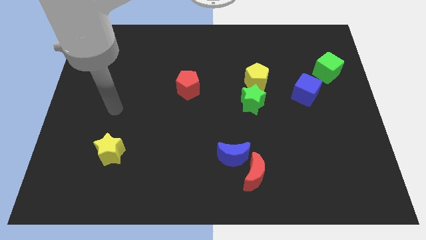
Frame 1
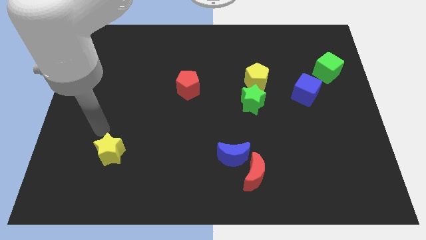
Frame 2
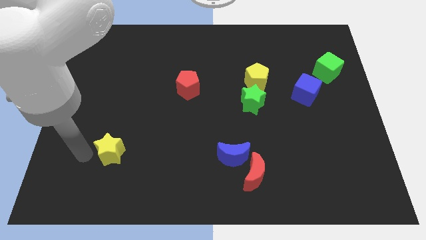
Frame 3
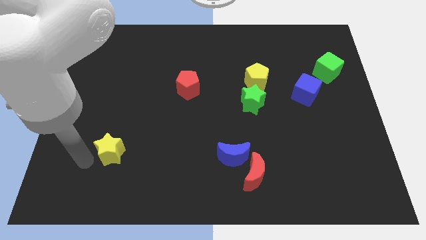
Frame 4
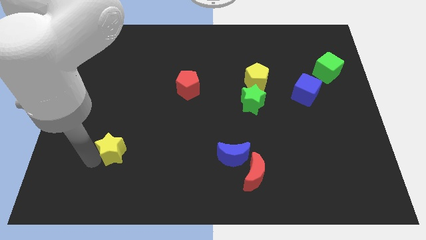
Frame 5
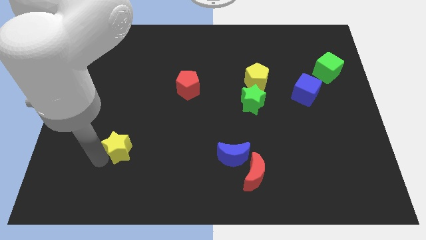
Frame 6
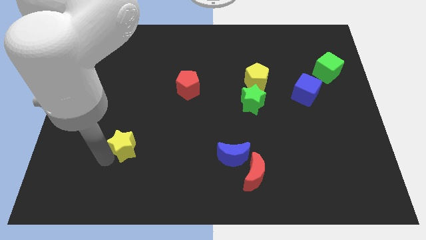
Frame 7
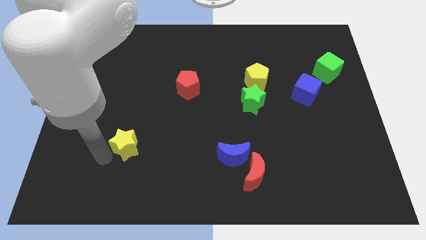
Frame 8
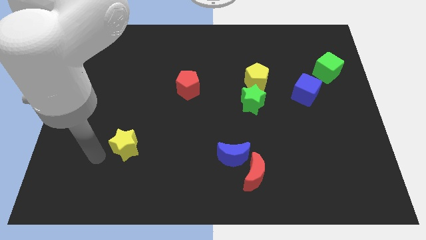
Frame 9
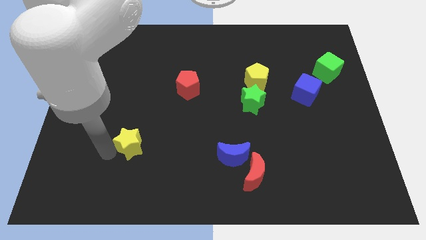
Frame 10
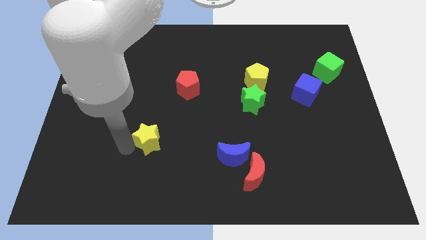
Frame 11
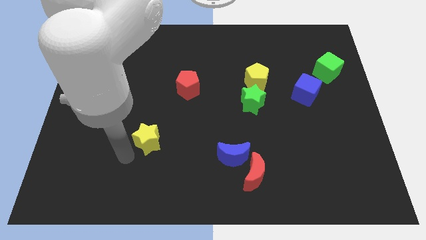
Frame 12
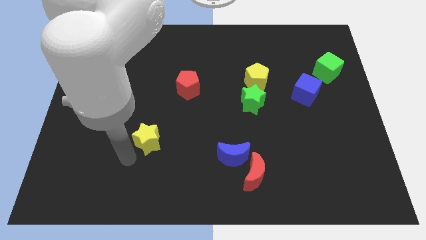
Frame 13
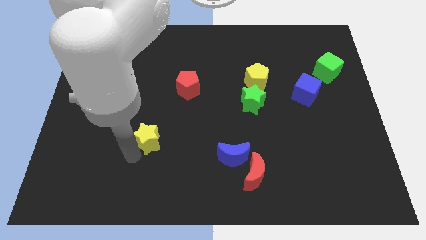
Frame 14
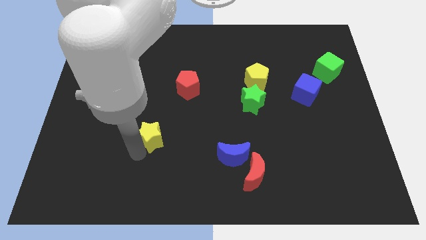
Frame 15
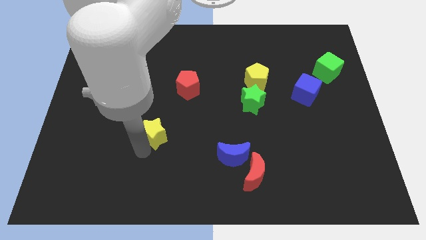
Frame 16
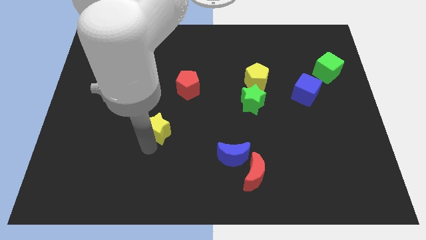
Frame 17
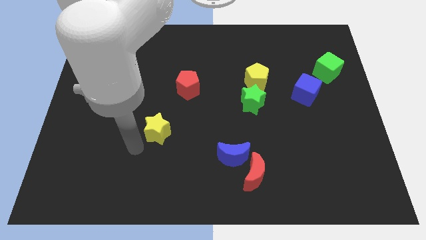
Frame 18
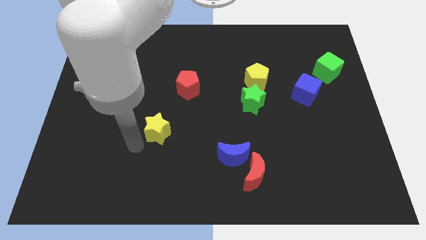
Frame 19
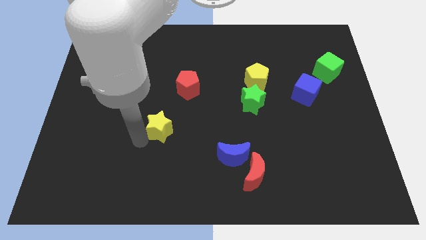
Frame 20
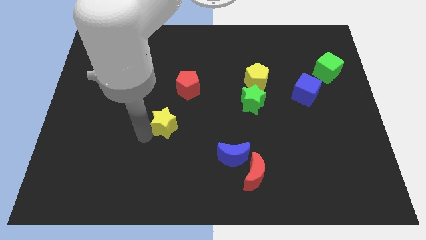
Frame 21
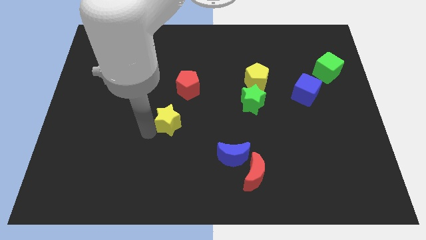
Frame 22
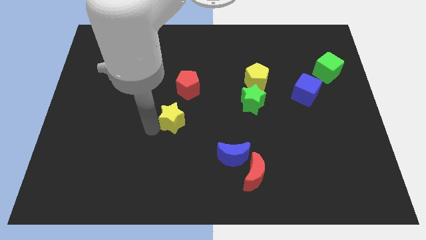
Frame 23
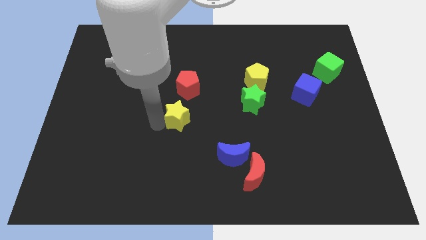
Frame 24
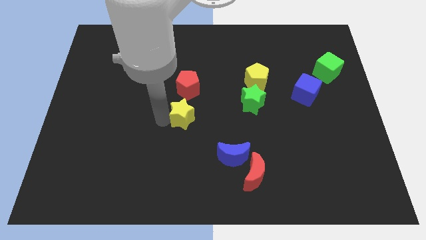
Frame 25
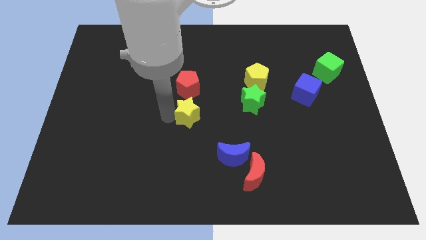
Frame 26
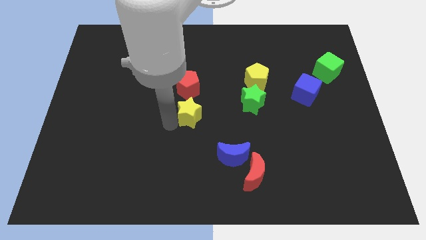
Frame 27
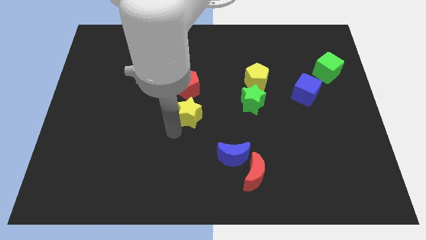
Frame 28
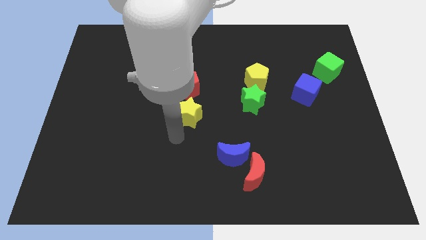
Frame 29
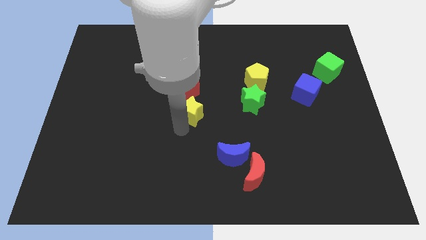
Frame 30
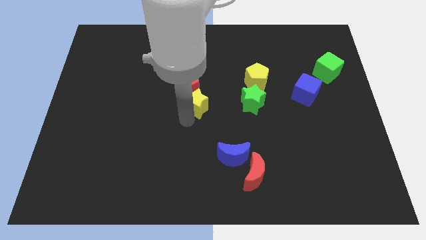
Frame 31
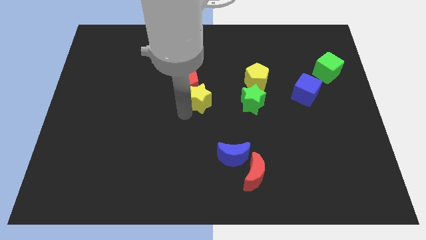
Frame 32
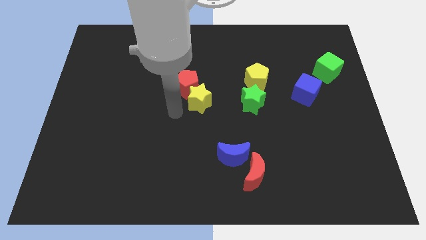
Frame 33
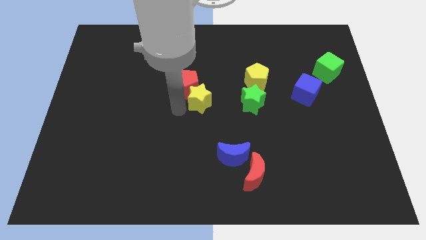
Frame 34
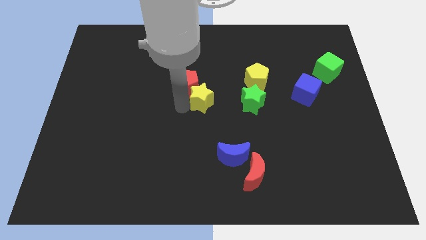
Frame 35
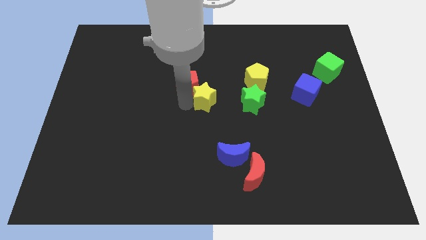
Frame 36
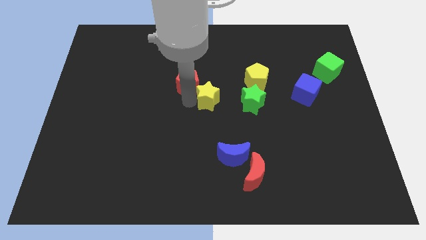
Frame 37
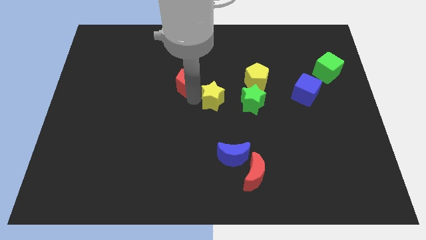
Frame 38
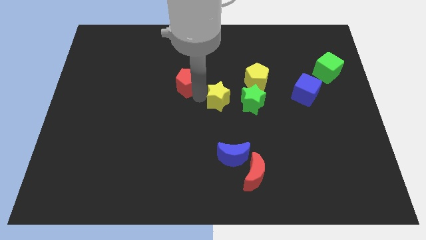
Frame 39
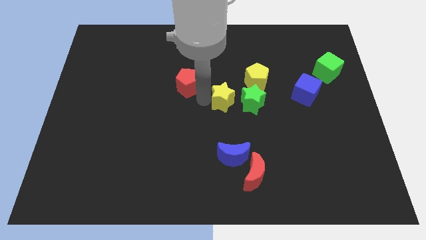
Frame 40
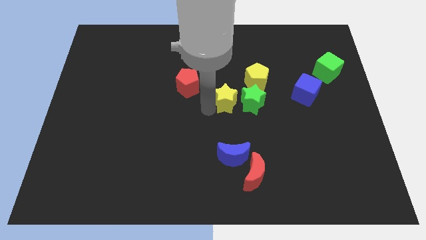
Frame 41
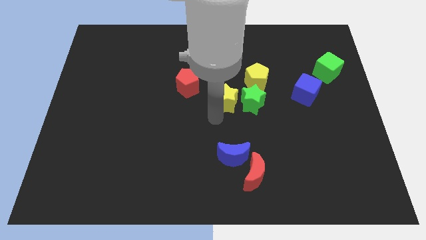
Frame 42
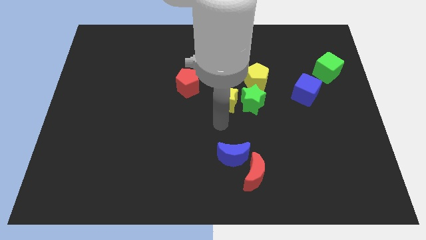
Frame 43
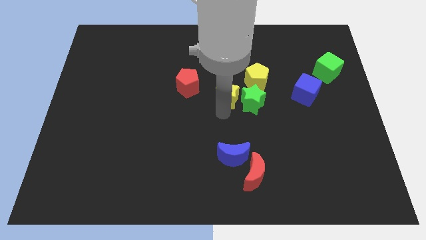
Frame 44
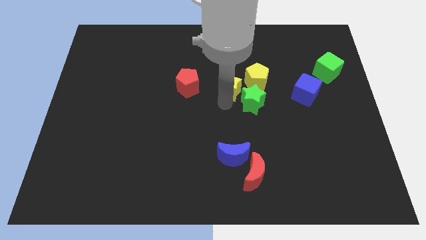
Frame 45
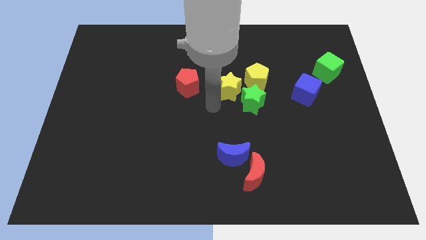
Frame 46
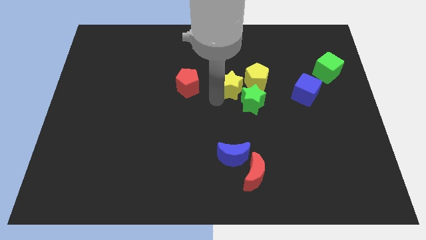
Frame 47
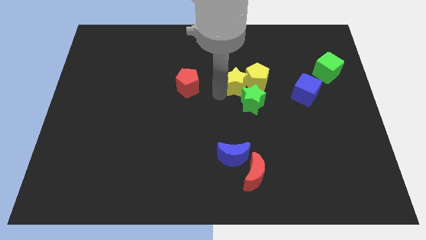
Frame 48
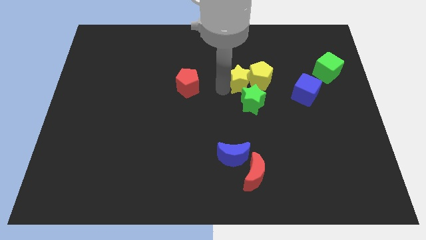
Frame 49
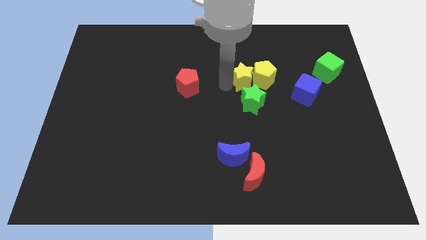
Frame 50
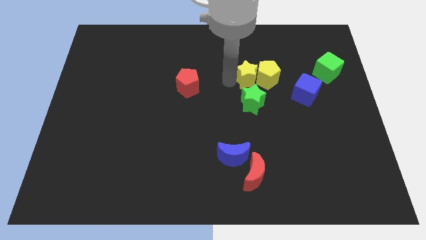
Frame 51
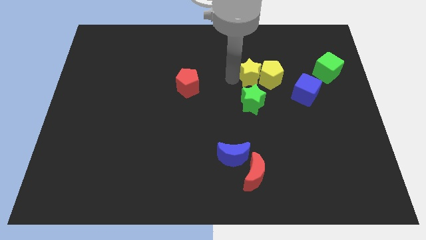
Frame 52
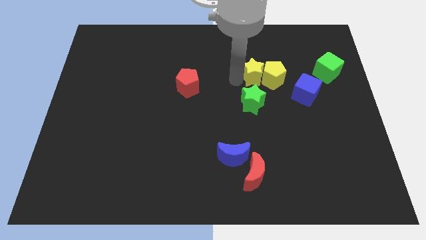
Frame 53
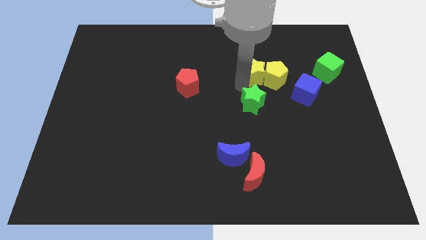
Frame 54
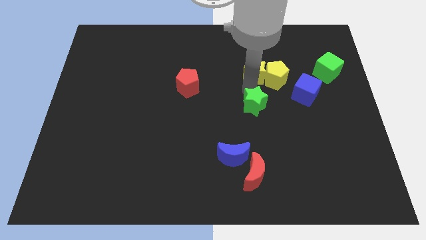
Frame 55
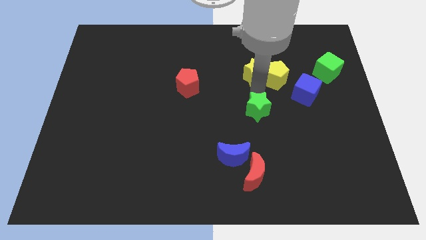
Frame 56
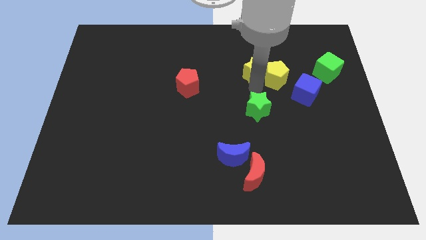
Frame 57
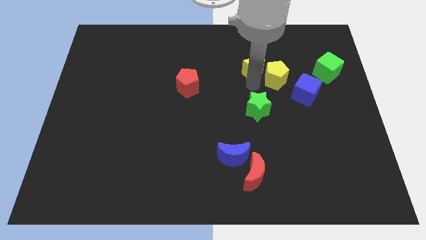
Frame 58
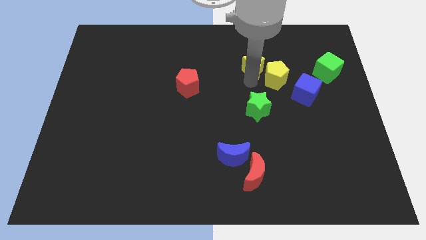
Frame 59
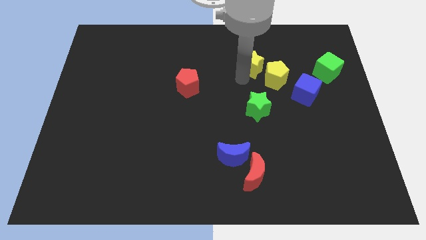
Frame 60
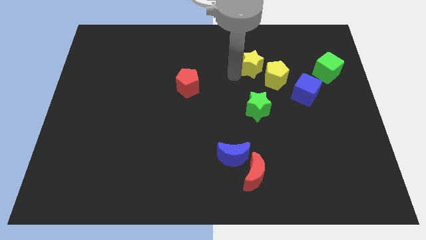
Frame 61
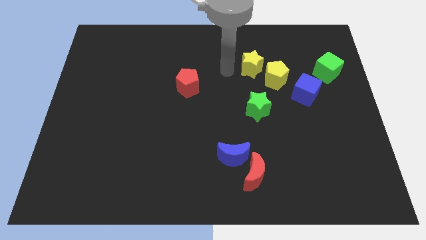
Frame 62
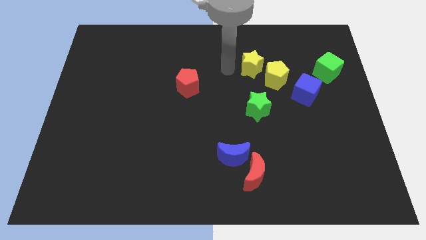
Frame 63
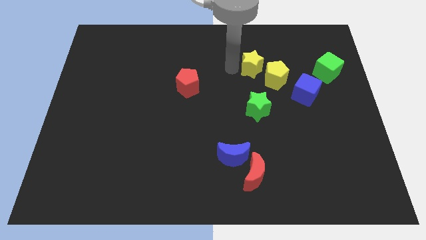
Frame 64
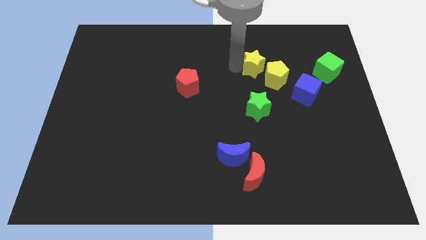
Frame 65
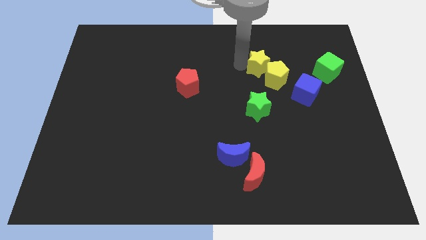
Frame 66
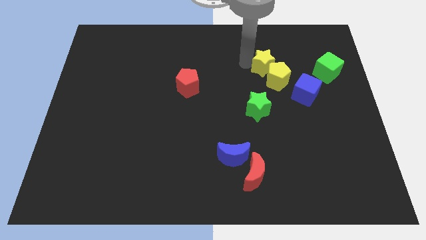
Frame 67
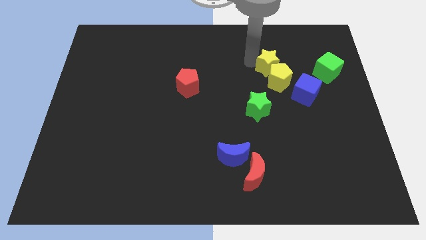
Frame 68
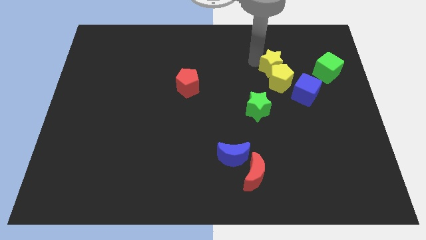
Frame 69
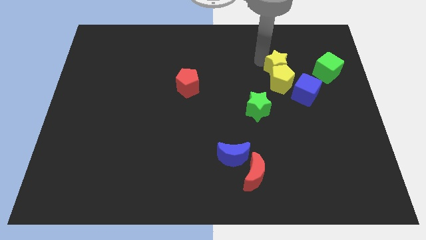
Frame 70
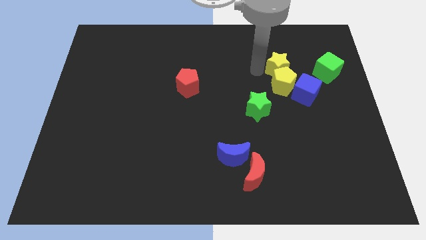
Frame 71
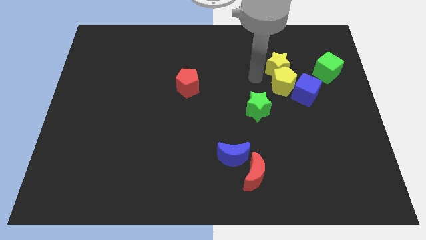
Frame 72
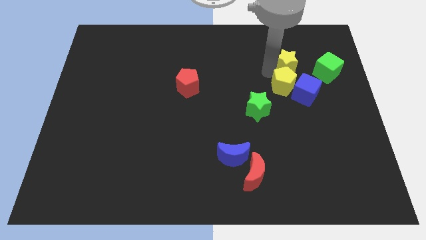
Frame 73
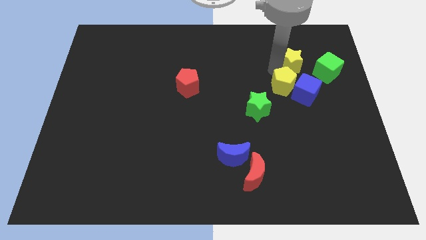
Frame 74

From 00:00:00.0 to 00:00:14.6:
move the yellow star to the top left side of the green cube

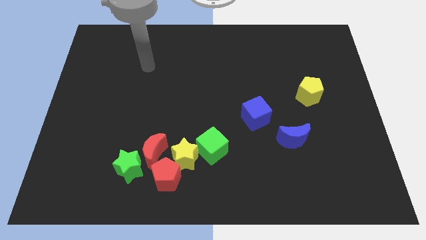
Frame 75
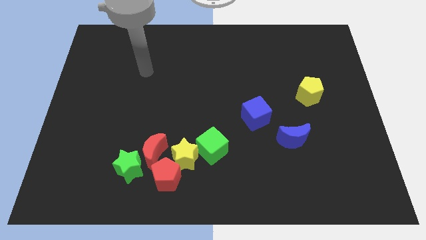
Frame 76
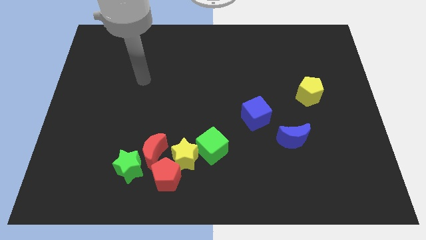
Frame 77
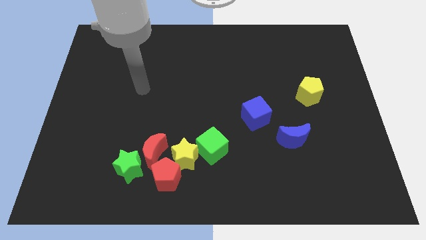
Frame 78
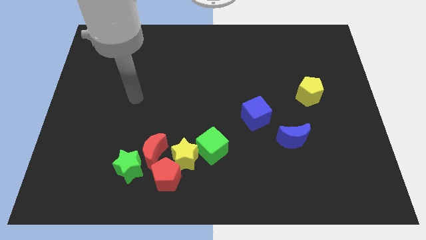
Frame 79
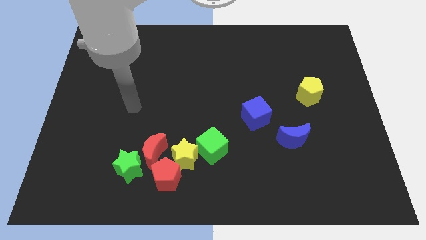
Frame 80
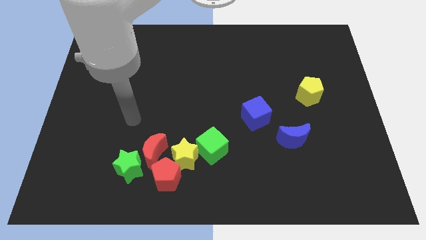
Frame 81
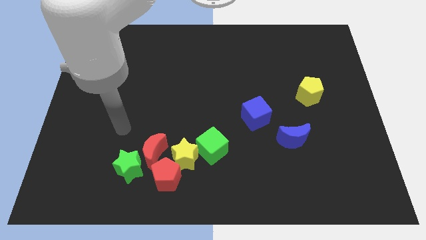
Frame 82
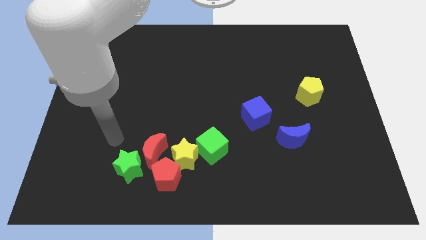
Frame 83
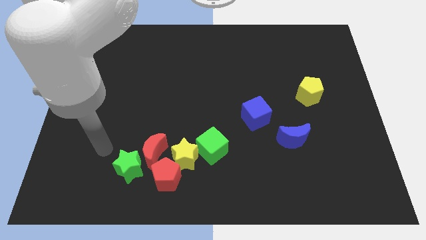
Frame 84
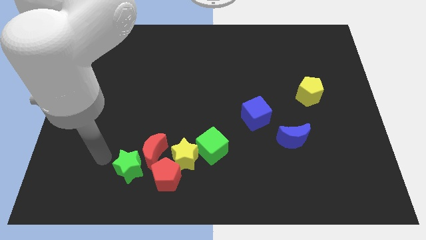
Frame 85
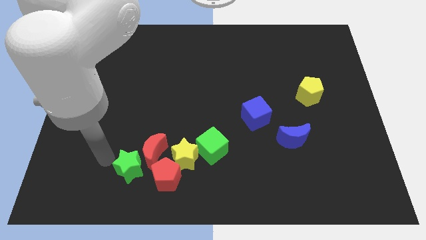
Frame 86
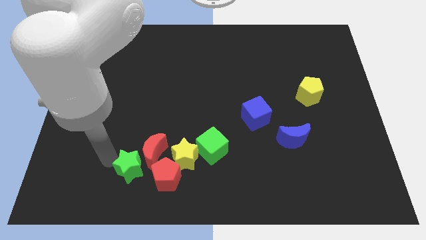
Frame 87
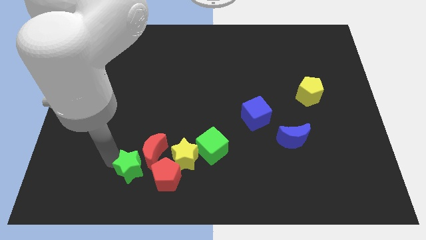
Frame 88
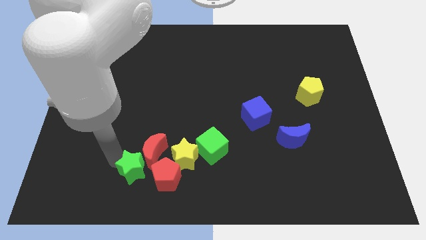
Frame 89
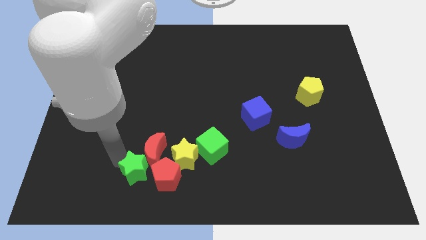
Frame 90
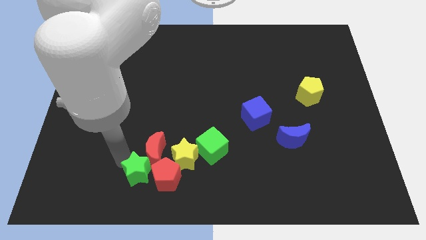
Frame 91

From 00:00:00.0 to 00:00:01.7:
slide the green star diagonally down and to the left of the yellow star
